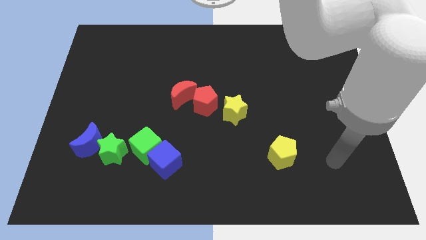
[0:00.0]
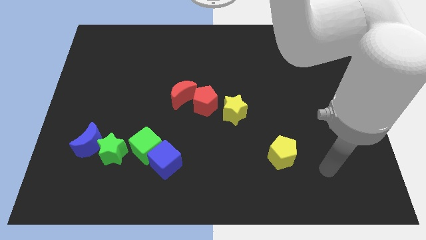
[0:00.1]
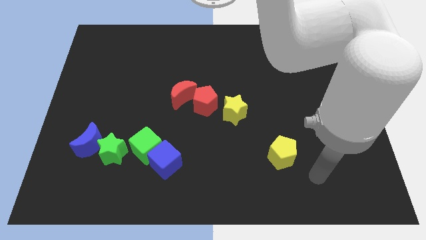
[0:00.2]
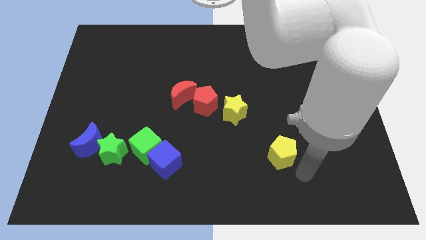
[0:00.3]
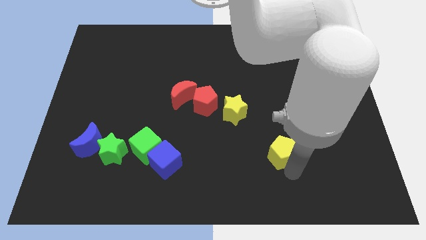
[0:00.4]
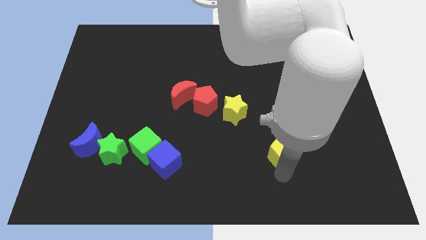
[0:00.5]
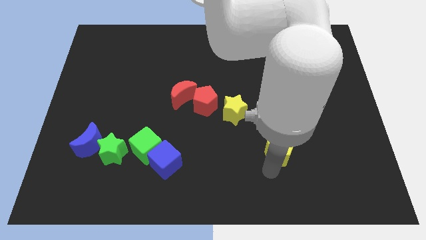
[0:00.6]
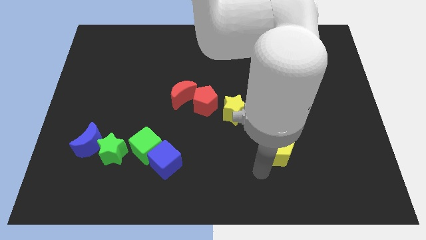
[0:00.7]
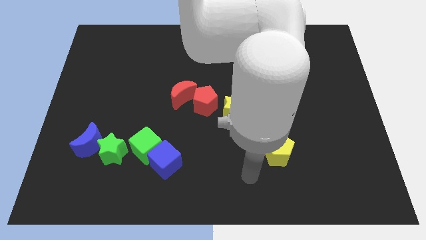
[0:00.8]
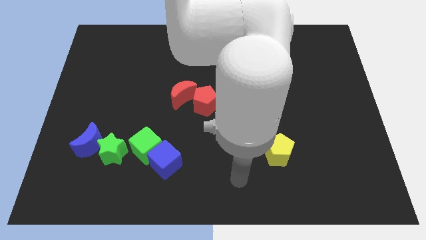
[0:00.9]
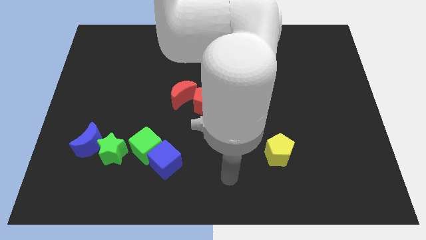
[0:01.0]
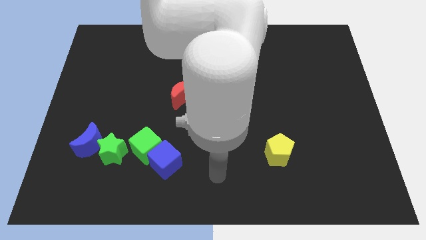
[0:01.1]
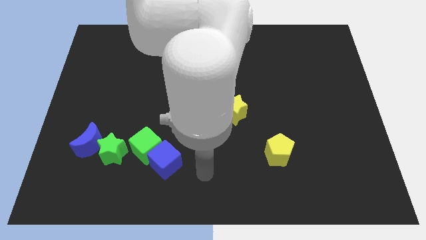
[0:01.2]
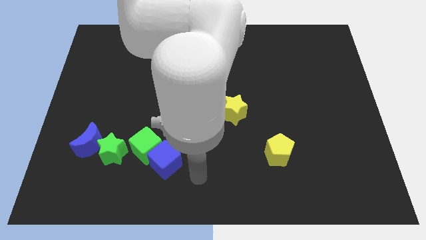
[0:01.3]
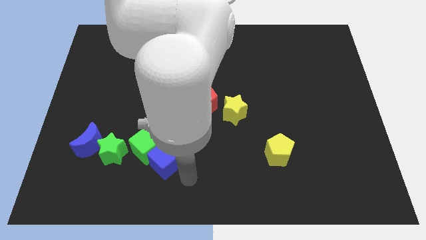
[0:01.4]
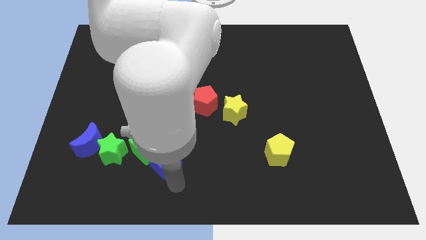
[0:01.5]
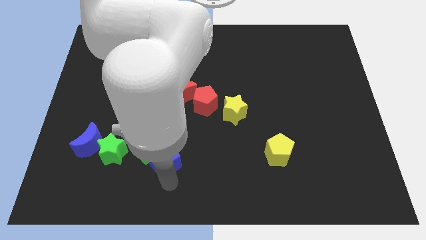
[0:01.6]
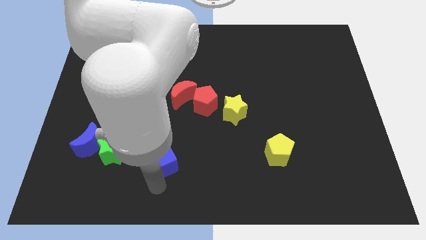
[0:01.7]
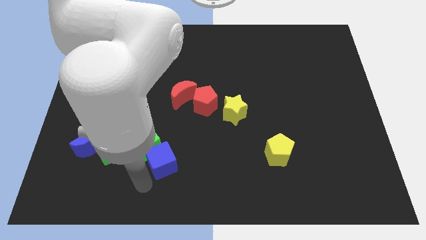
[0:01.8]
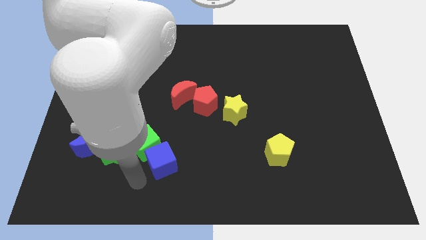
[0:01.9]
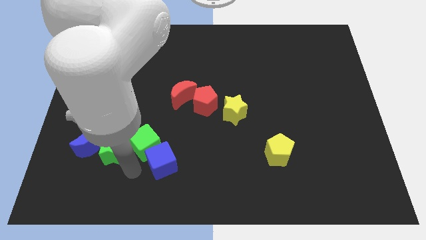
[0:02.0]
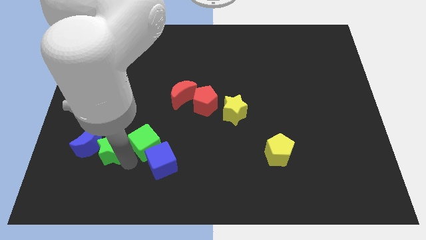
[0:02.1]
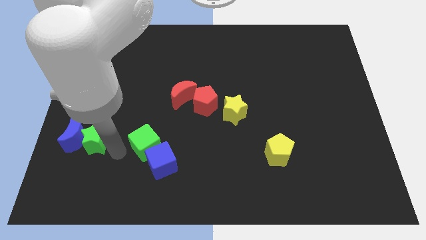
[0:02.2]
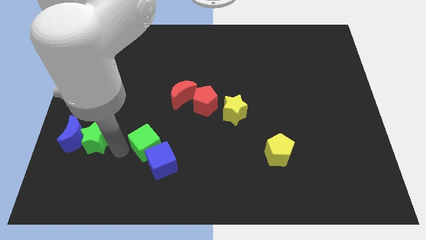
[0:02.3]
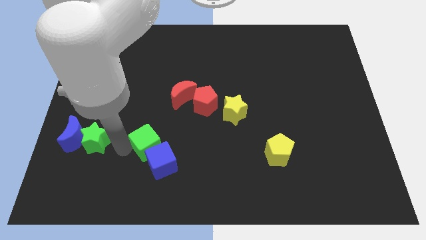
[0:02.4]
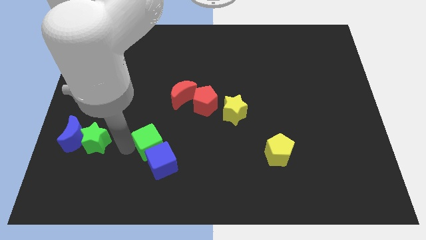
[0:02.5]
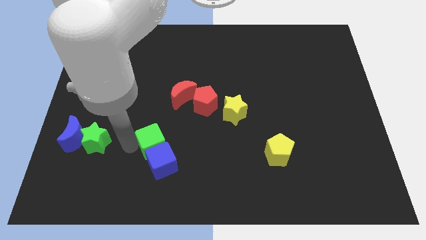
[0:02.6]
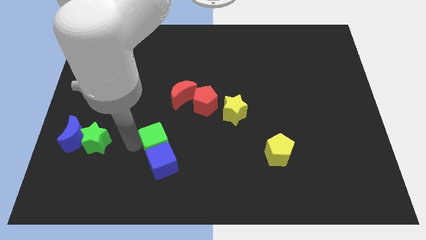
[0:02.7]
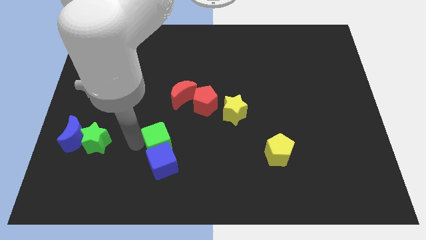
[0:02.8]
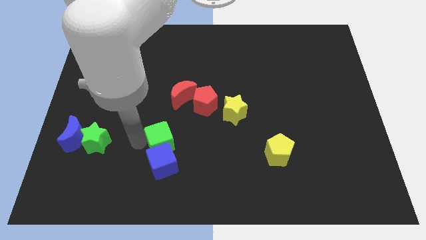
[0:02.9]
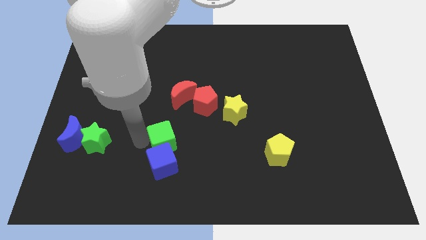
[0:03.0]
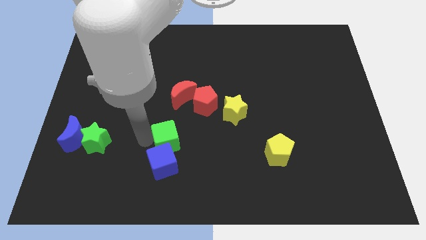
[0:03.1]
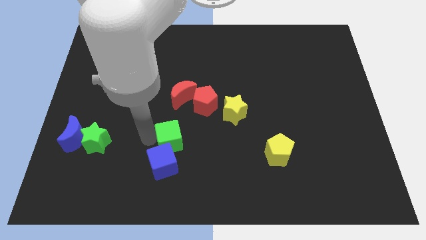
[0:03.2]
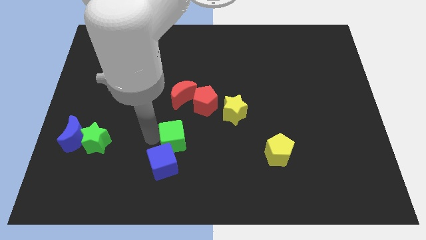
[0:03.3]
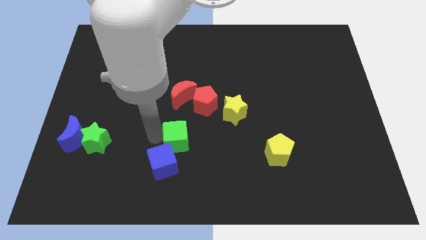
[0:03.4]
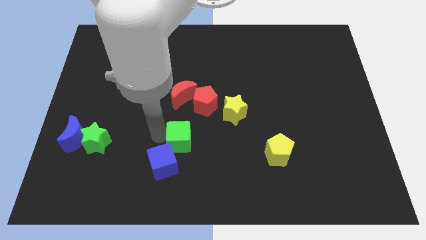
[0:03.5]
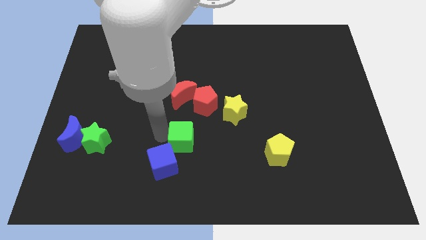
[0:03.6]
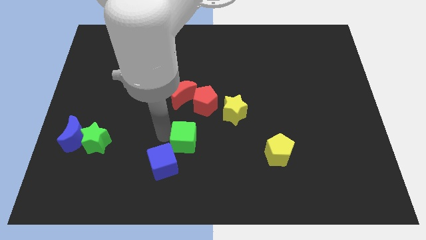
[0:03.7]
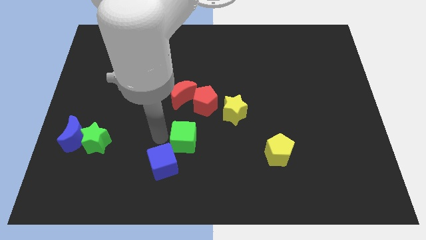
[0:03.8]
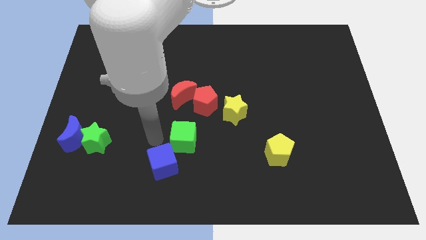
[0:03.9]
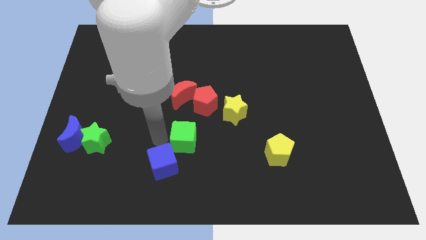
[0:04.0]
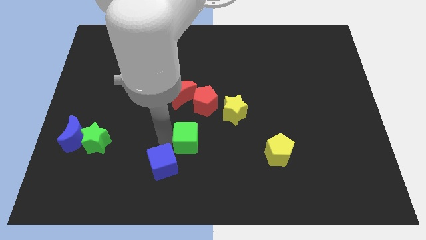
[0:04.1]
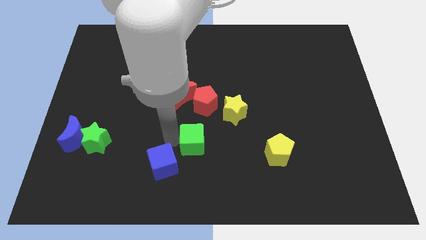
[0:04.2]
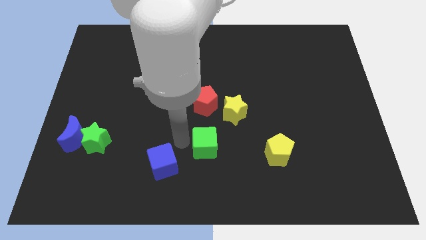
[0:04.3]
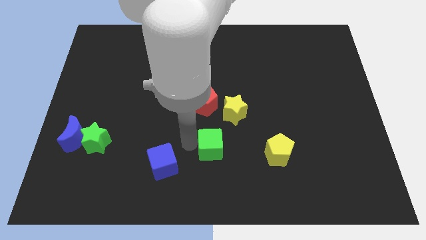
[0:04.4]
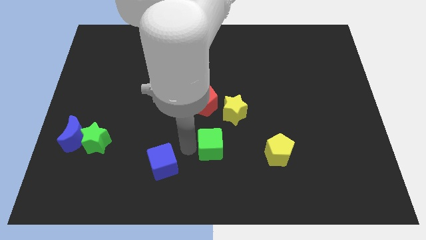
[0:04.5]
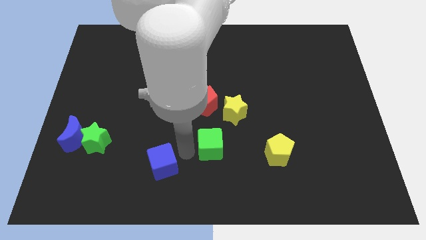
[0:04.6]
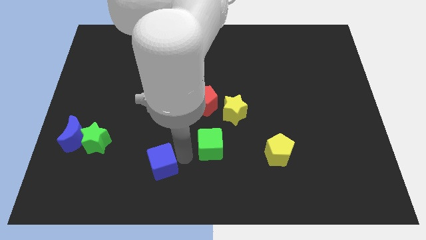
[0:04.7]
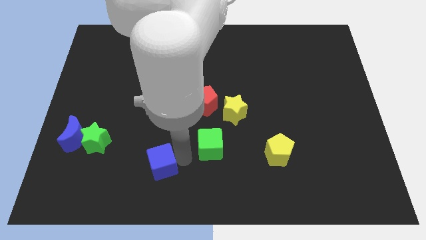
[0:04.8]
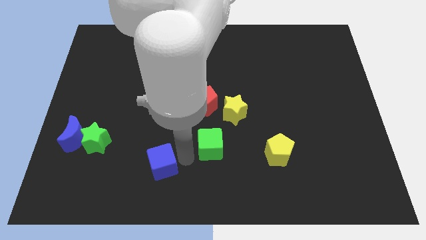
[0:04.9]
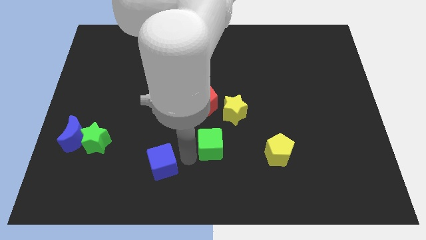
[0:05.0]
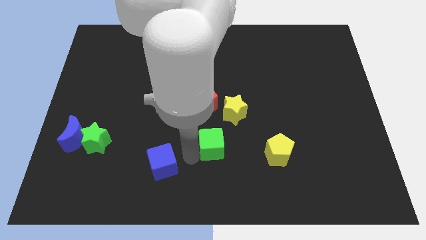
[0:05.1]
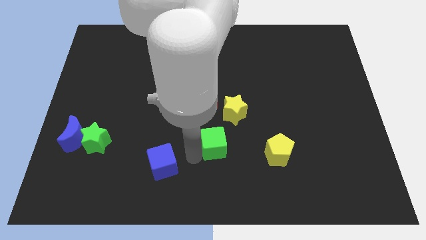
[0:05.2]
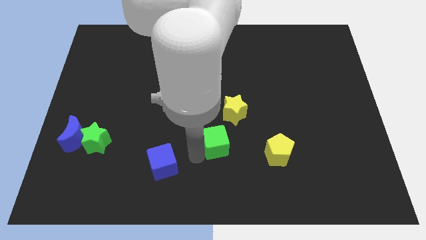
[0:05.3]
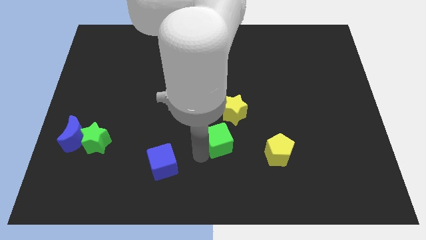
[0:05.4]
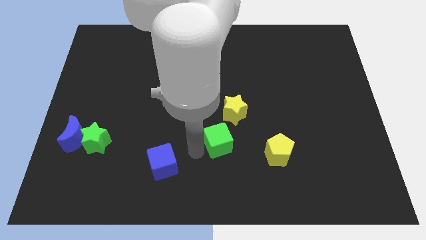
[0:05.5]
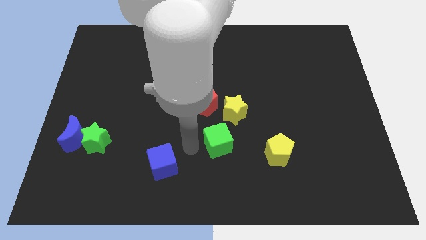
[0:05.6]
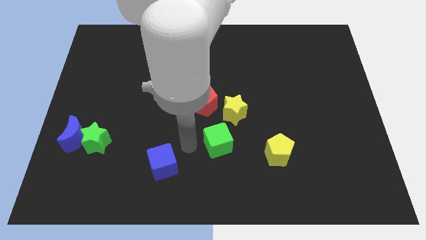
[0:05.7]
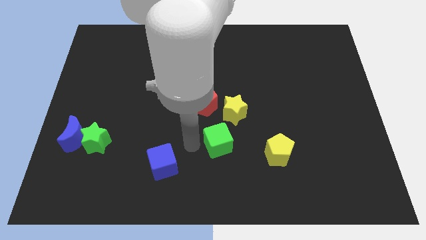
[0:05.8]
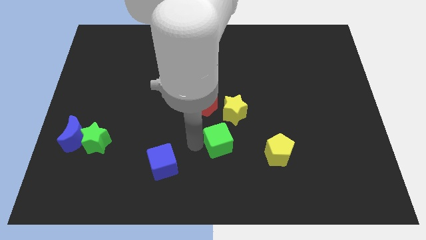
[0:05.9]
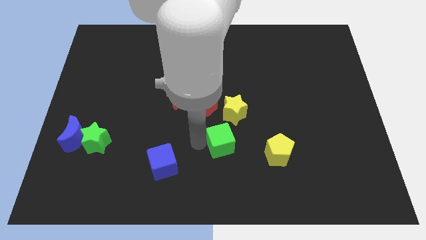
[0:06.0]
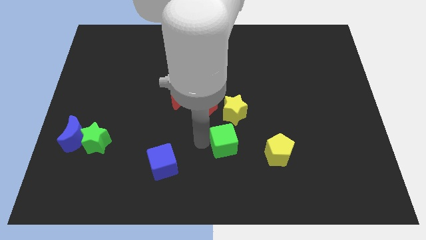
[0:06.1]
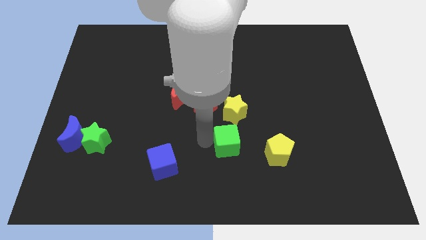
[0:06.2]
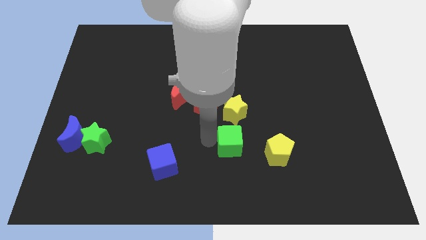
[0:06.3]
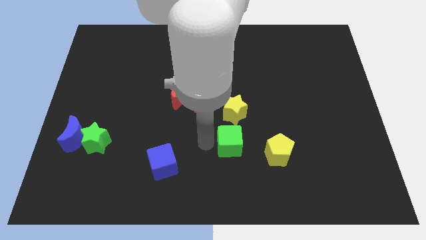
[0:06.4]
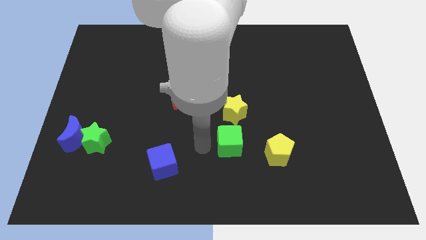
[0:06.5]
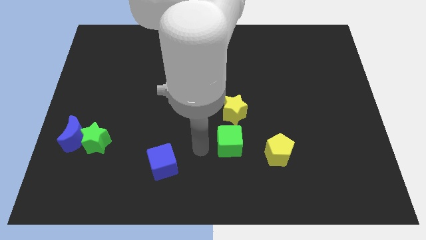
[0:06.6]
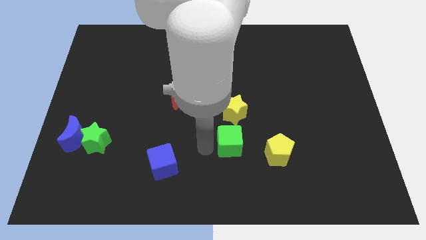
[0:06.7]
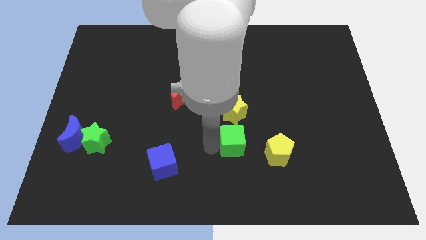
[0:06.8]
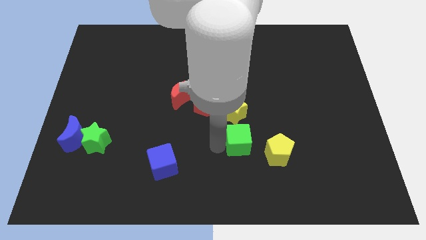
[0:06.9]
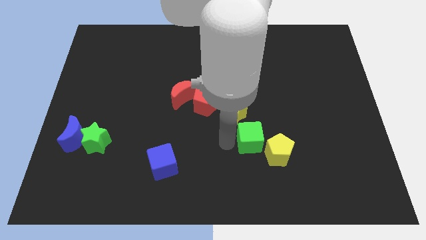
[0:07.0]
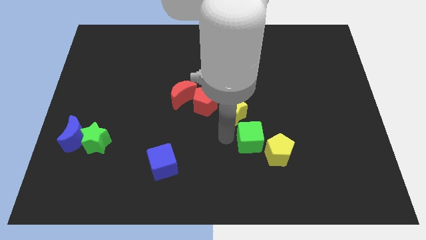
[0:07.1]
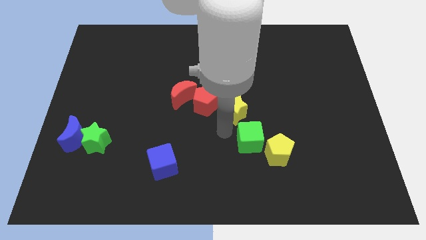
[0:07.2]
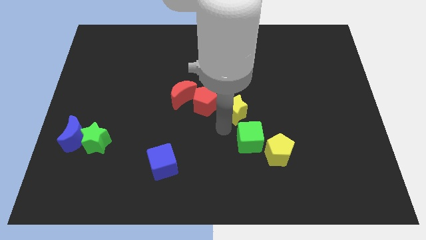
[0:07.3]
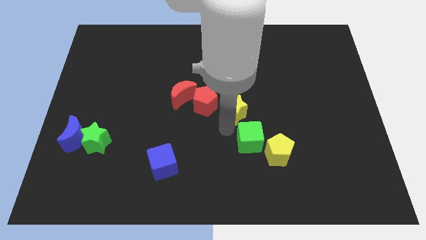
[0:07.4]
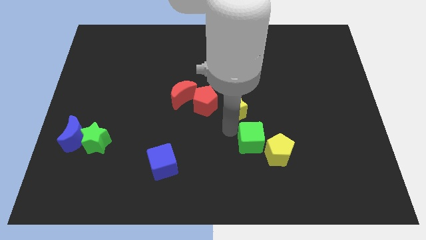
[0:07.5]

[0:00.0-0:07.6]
push the green cube to the yellow pentagon
